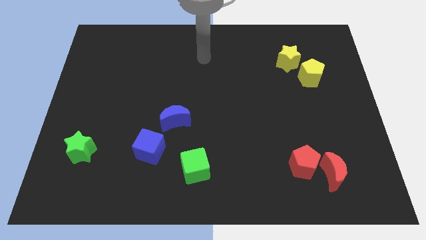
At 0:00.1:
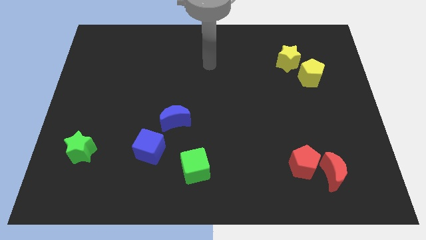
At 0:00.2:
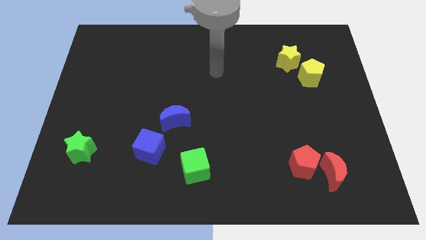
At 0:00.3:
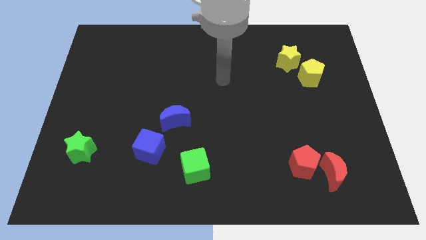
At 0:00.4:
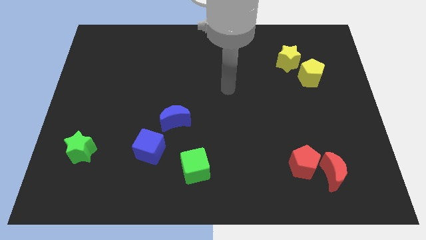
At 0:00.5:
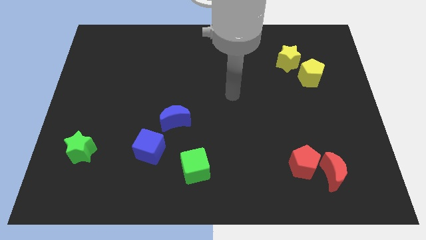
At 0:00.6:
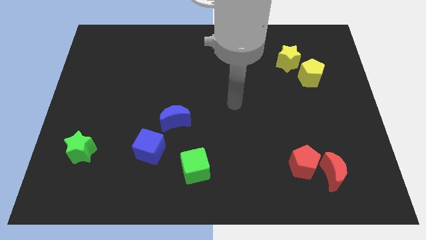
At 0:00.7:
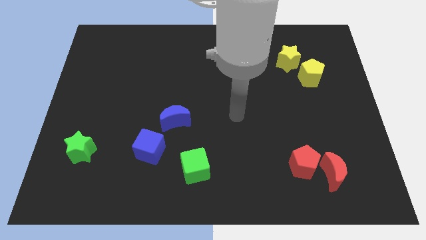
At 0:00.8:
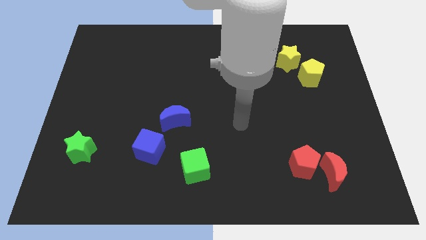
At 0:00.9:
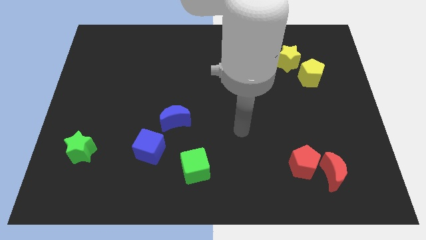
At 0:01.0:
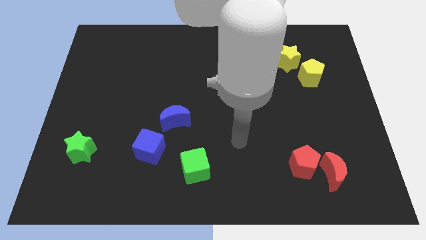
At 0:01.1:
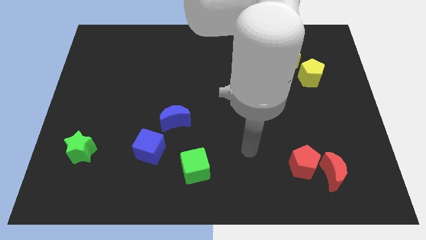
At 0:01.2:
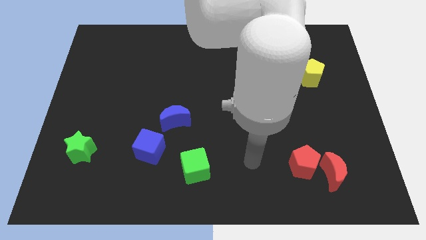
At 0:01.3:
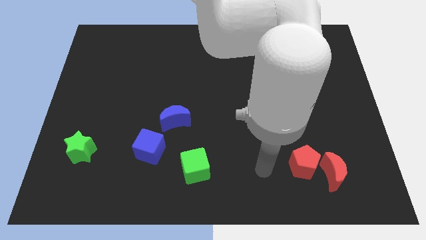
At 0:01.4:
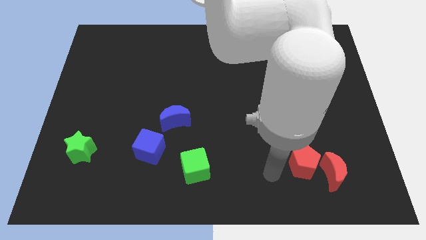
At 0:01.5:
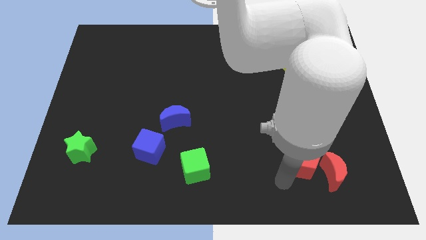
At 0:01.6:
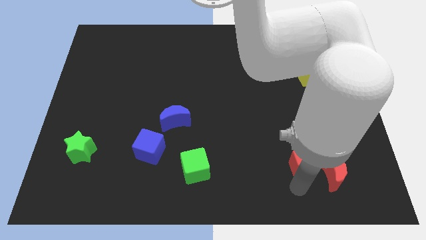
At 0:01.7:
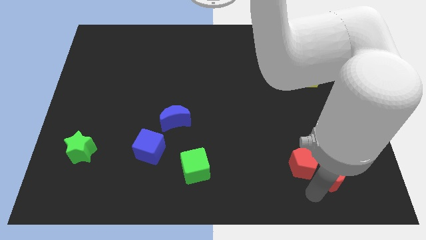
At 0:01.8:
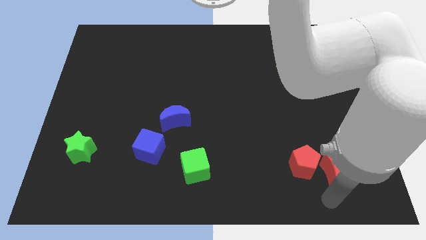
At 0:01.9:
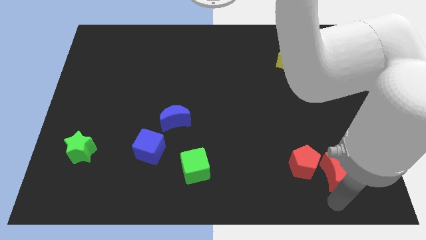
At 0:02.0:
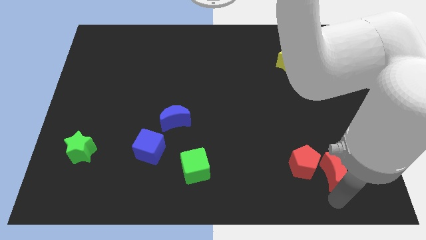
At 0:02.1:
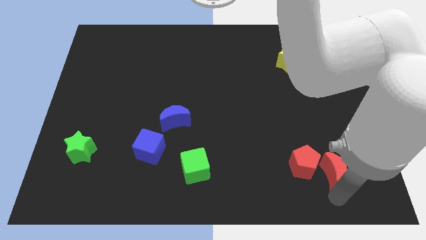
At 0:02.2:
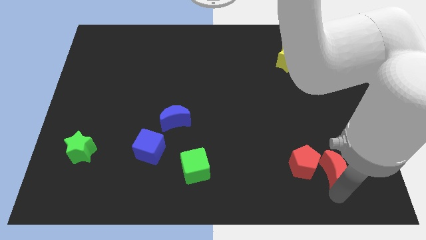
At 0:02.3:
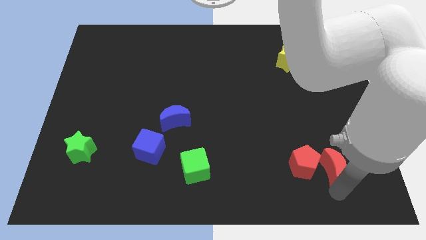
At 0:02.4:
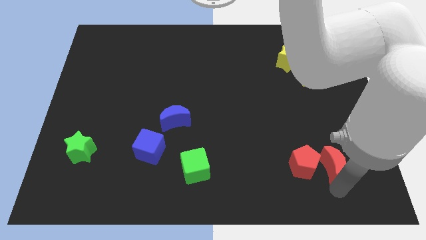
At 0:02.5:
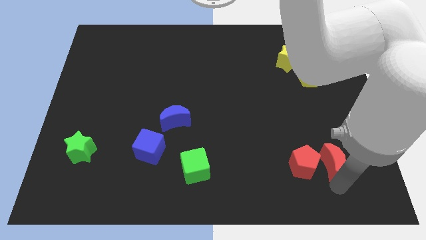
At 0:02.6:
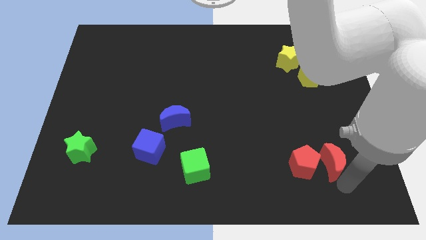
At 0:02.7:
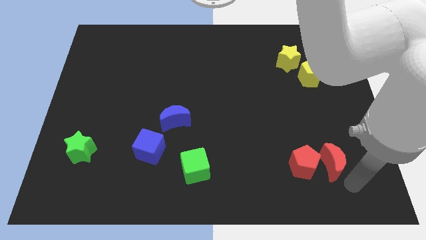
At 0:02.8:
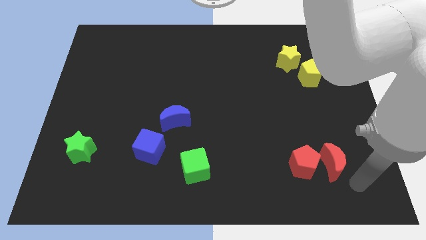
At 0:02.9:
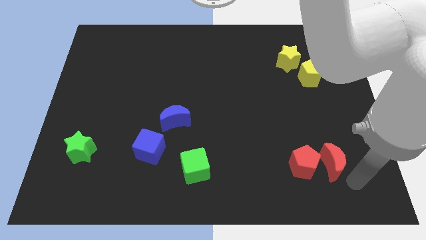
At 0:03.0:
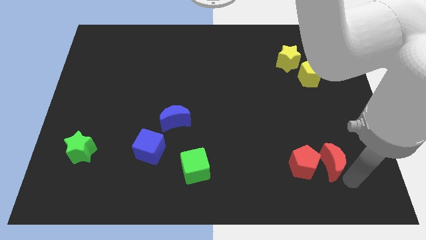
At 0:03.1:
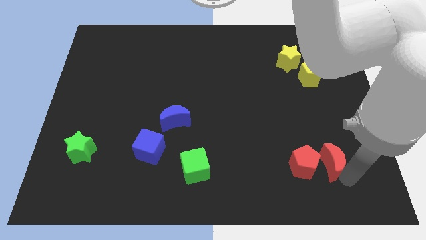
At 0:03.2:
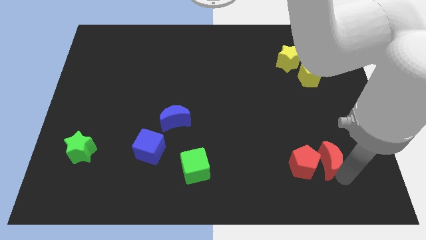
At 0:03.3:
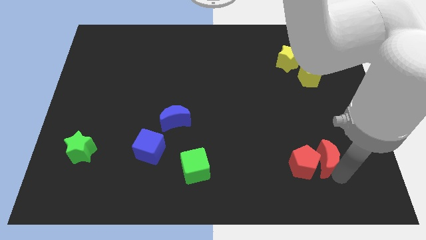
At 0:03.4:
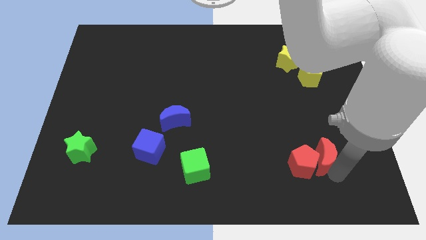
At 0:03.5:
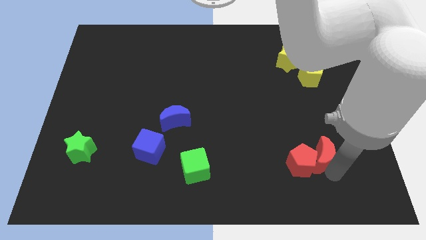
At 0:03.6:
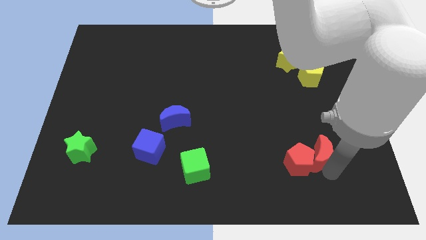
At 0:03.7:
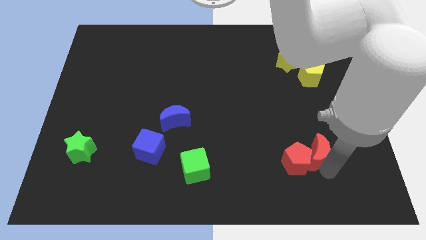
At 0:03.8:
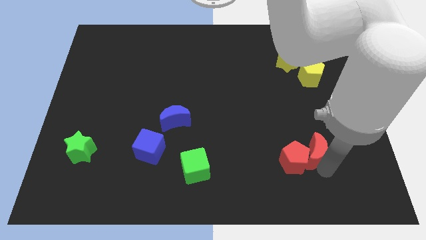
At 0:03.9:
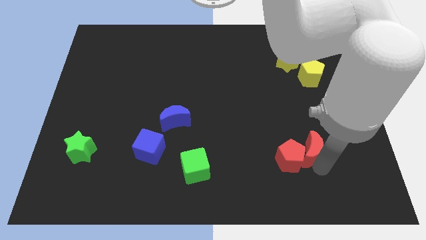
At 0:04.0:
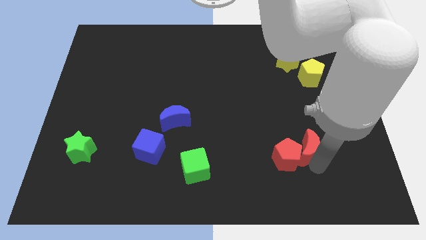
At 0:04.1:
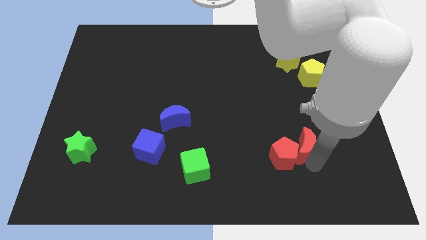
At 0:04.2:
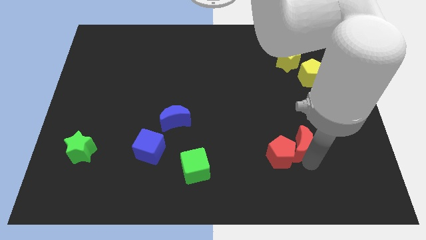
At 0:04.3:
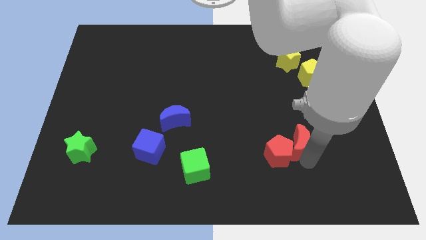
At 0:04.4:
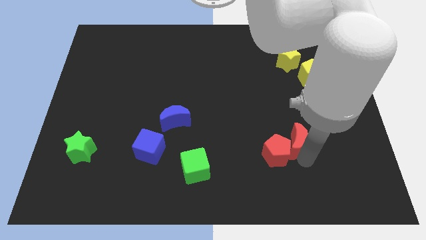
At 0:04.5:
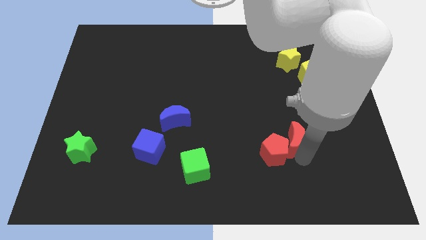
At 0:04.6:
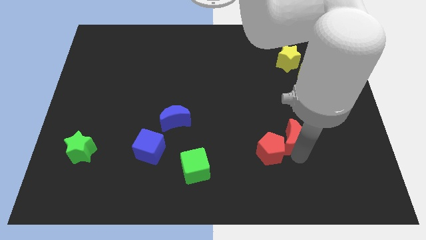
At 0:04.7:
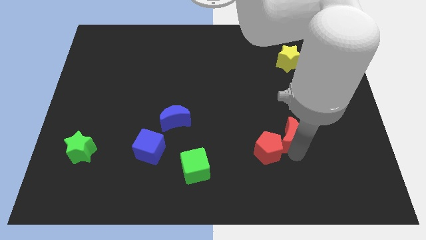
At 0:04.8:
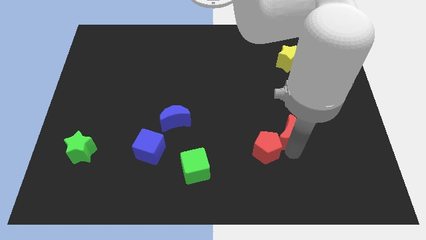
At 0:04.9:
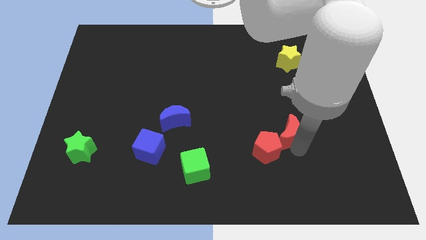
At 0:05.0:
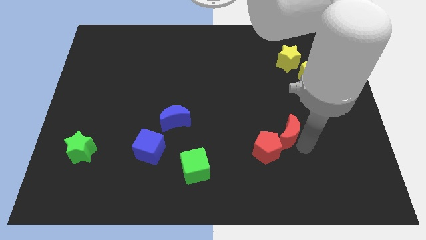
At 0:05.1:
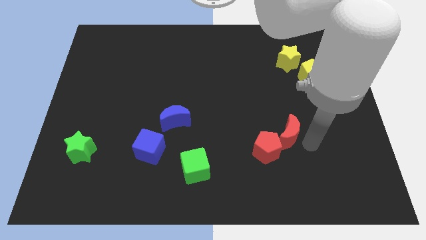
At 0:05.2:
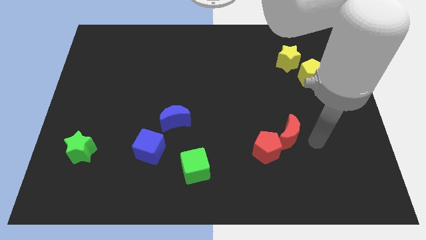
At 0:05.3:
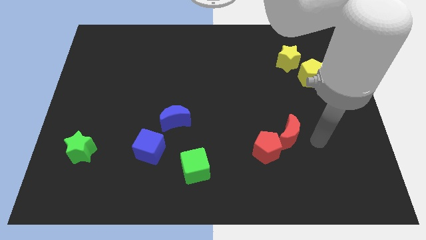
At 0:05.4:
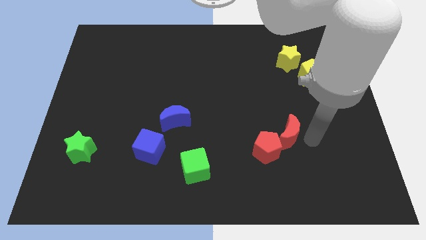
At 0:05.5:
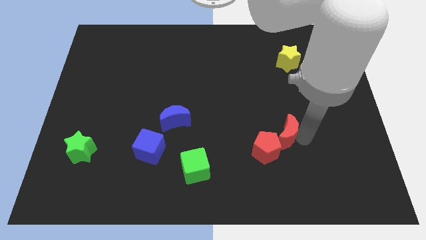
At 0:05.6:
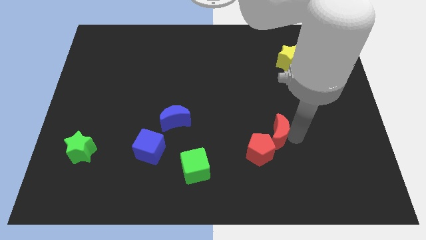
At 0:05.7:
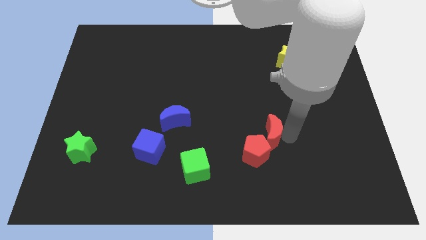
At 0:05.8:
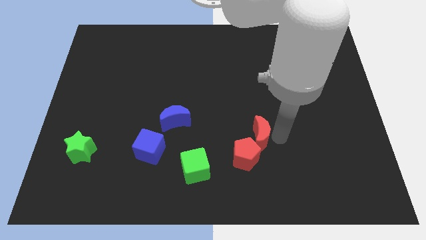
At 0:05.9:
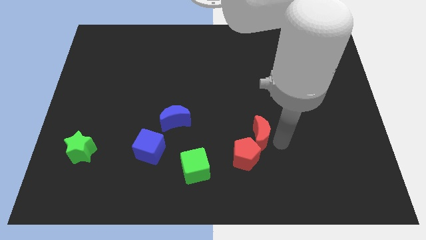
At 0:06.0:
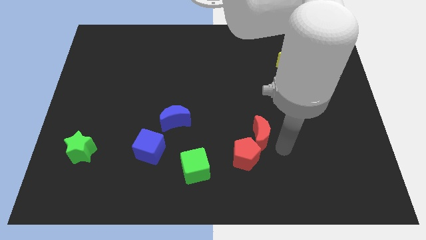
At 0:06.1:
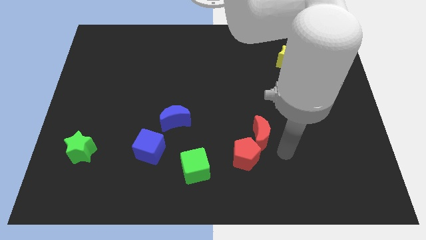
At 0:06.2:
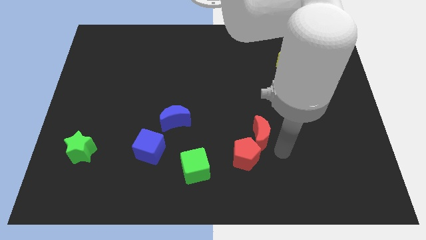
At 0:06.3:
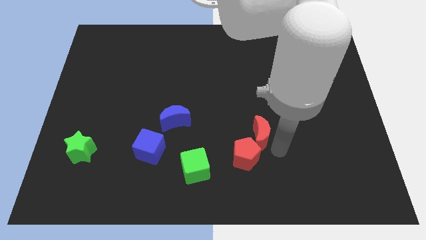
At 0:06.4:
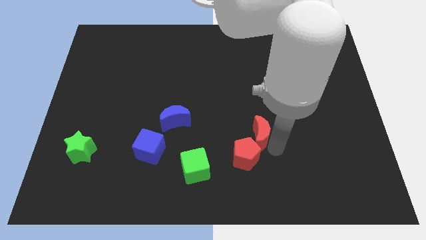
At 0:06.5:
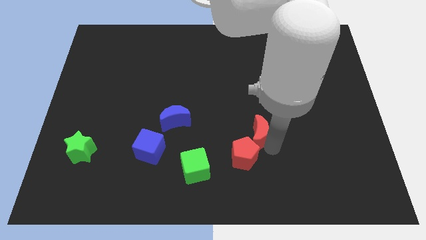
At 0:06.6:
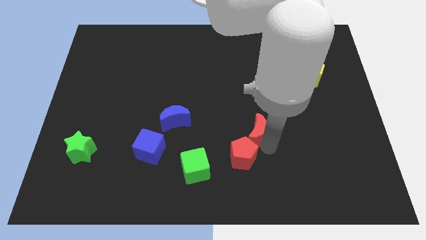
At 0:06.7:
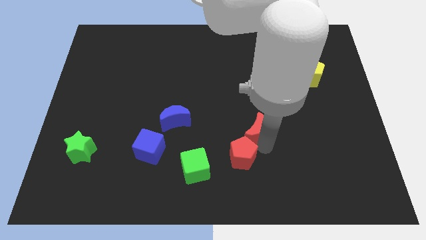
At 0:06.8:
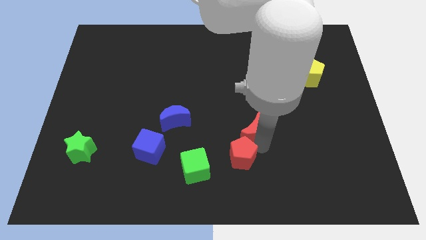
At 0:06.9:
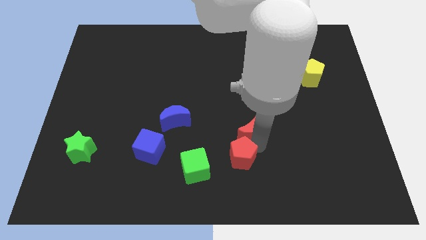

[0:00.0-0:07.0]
push the red moon to the middle
